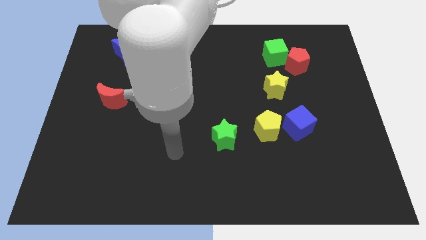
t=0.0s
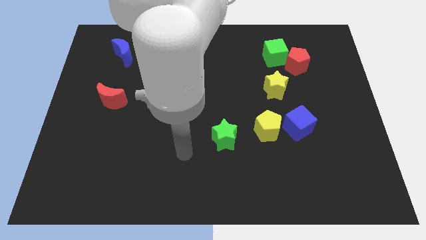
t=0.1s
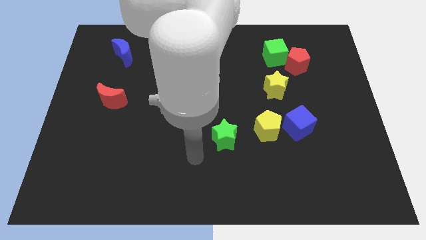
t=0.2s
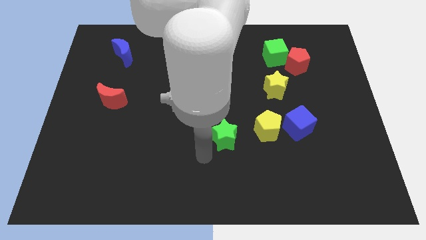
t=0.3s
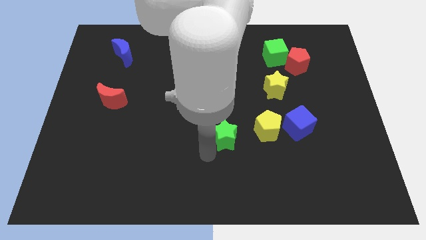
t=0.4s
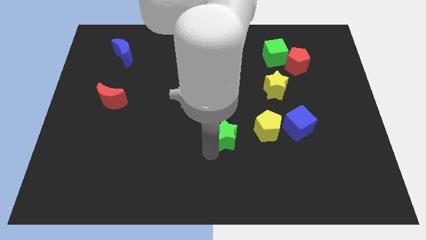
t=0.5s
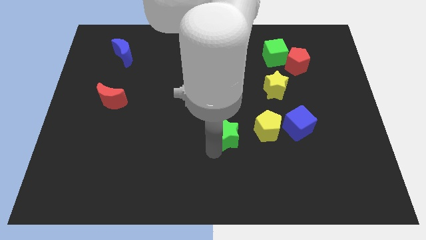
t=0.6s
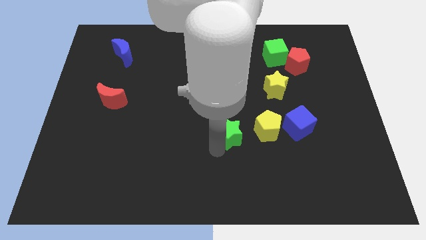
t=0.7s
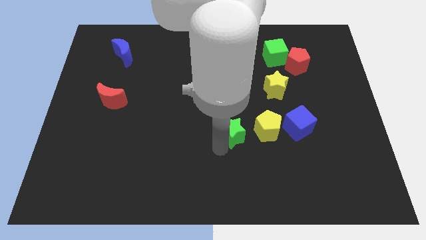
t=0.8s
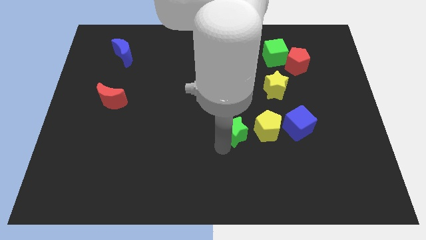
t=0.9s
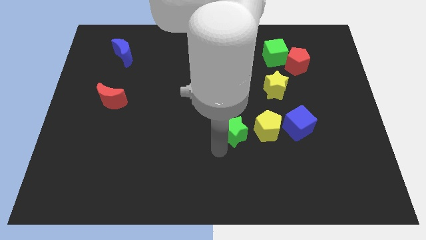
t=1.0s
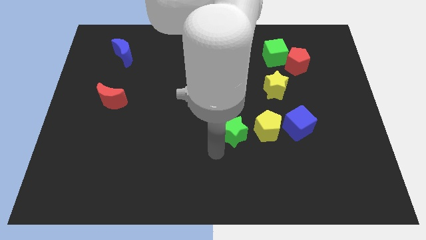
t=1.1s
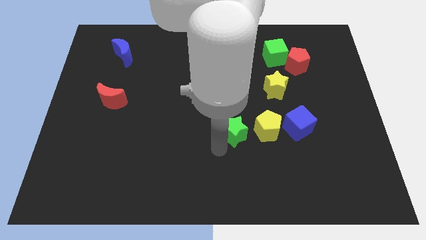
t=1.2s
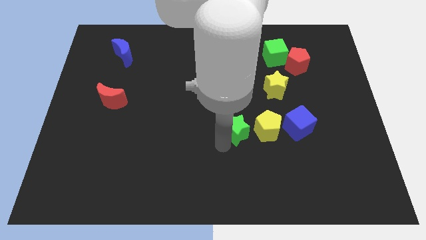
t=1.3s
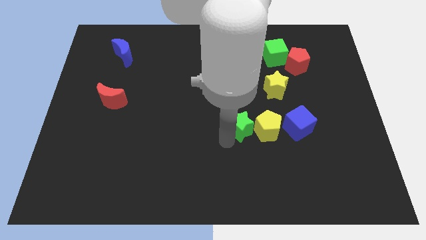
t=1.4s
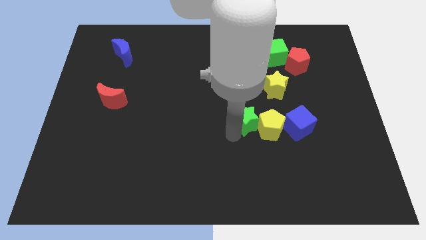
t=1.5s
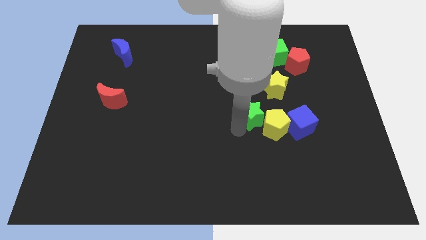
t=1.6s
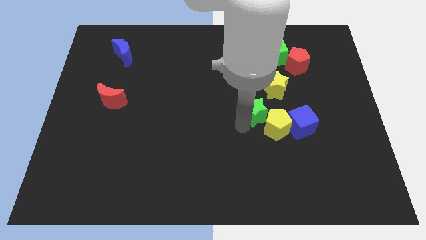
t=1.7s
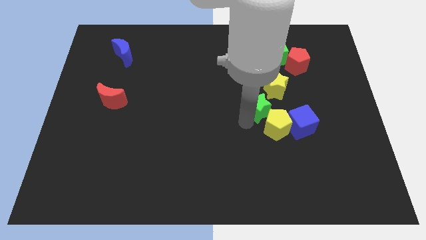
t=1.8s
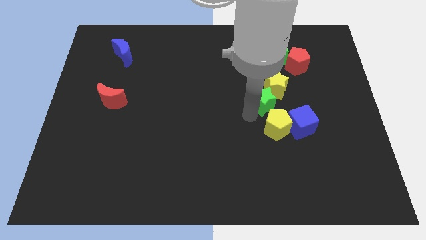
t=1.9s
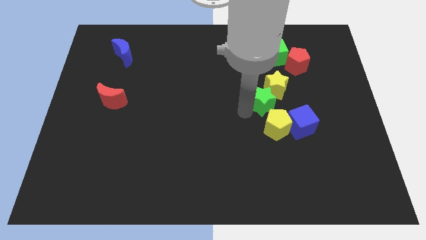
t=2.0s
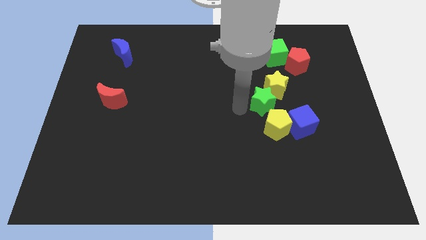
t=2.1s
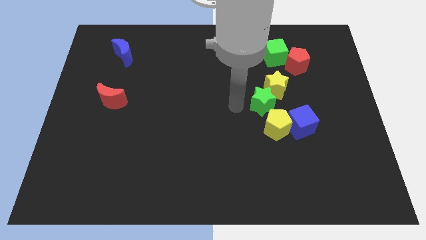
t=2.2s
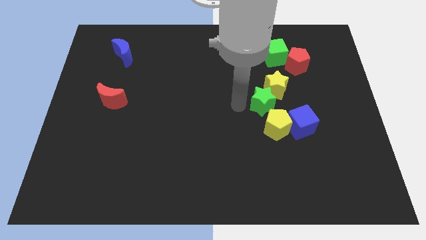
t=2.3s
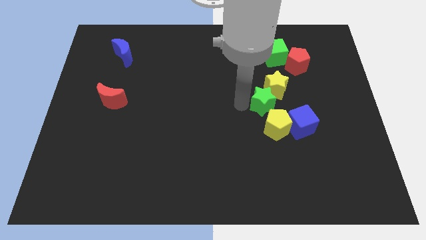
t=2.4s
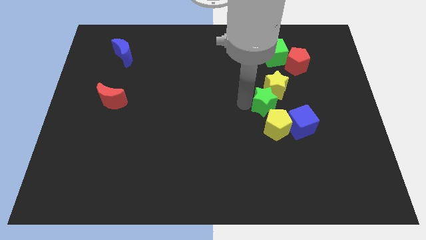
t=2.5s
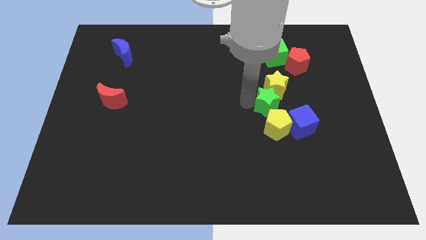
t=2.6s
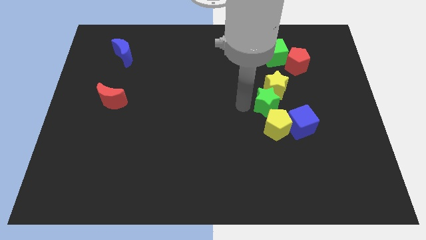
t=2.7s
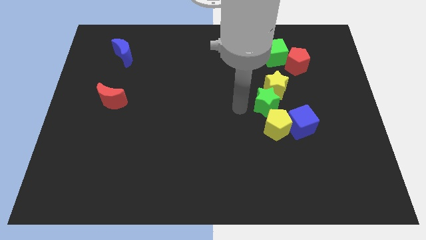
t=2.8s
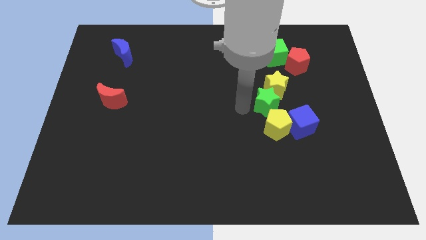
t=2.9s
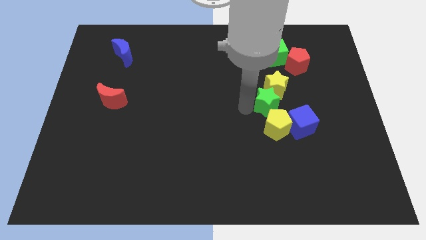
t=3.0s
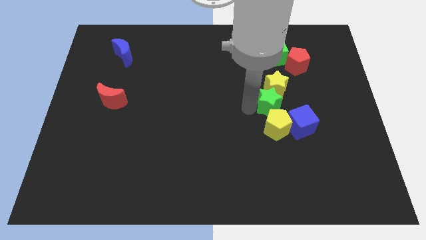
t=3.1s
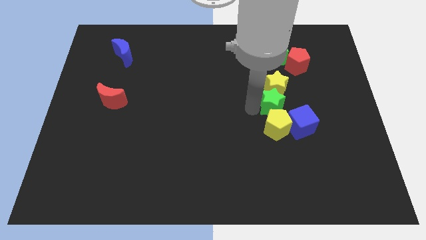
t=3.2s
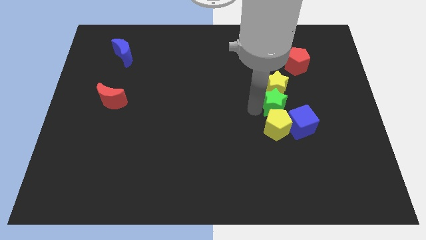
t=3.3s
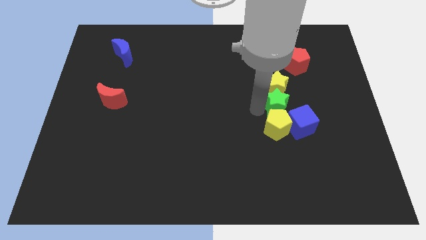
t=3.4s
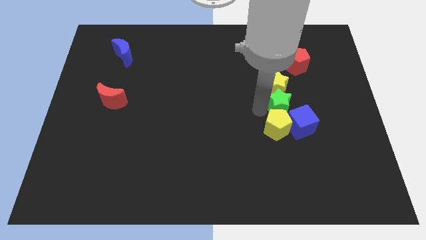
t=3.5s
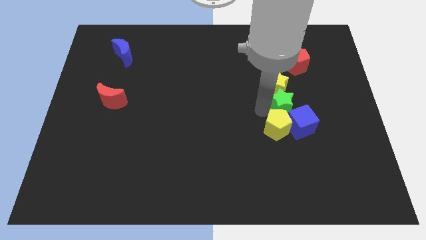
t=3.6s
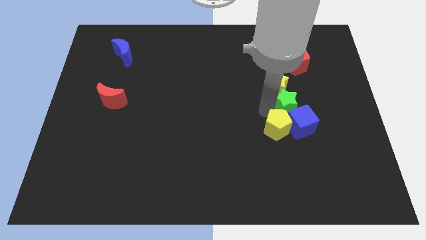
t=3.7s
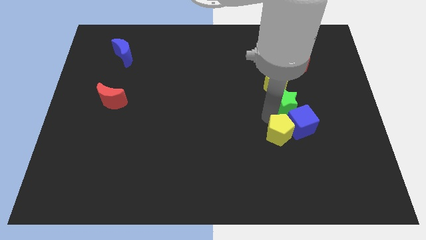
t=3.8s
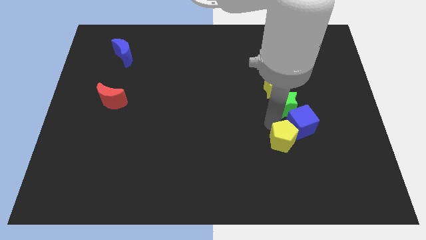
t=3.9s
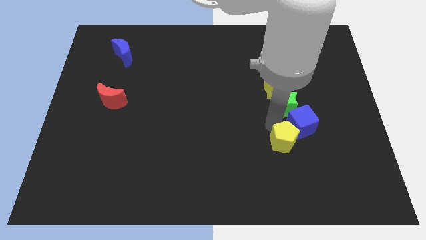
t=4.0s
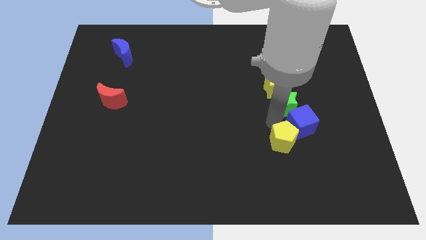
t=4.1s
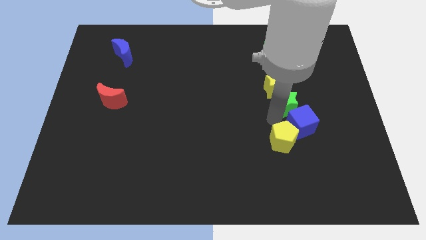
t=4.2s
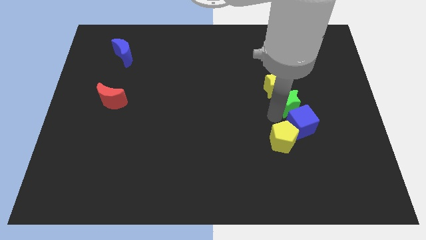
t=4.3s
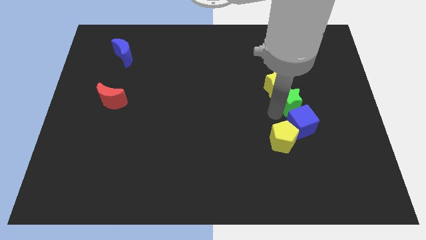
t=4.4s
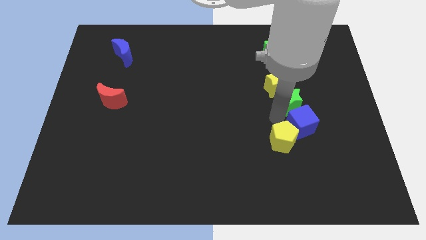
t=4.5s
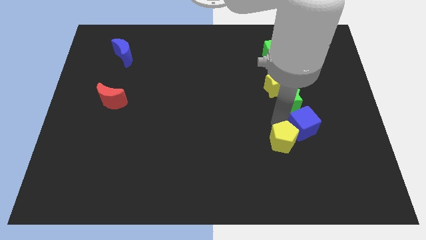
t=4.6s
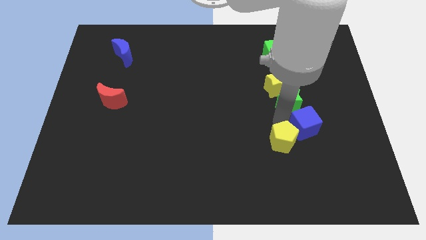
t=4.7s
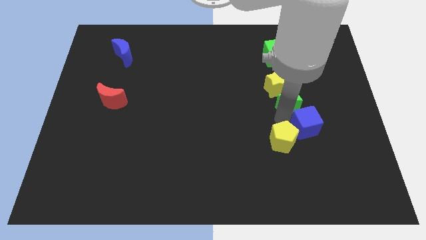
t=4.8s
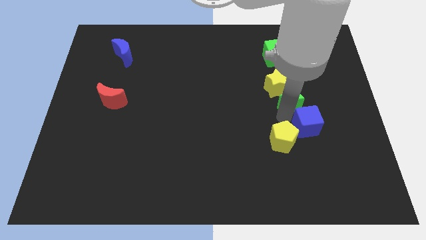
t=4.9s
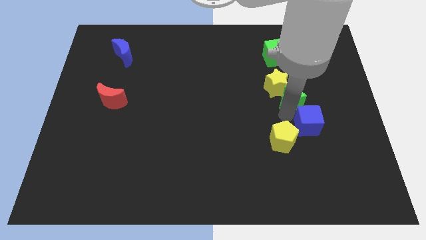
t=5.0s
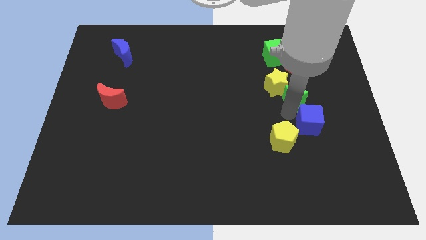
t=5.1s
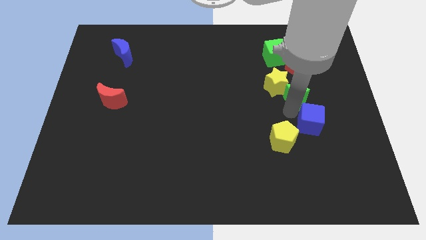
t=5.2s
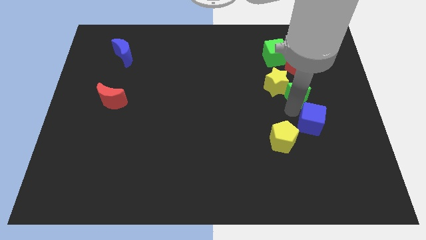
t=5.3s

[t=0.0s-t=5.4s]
slide the green star up and to the right diagonally

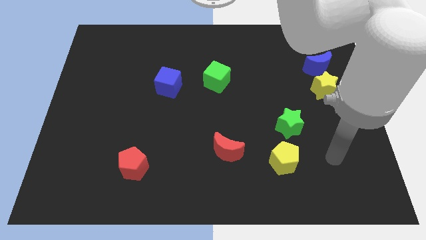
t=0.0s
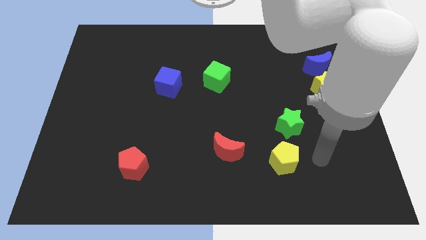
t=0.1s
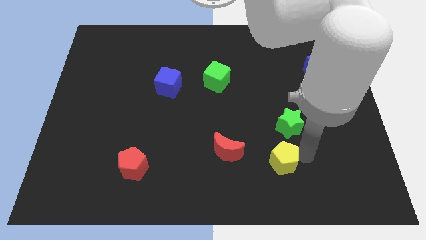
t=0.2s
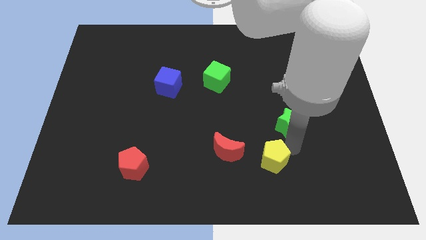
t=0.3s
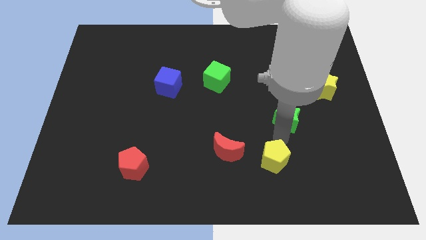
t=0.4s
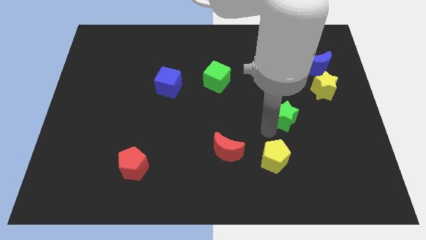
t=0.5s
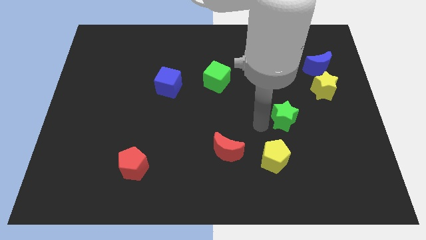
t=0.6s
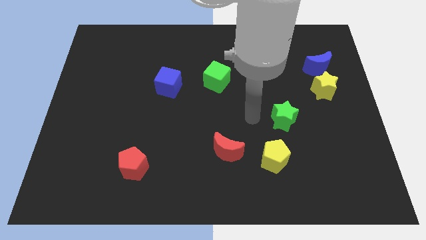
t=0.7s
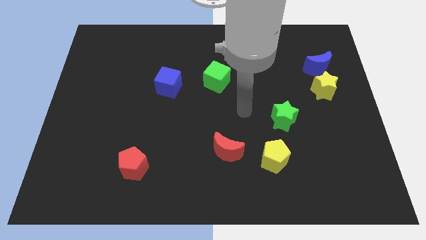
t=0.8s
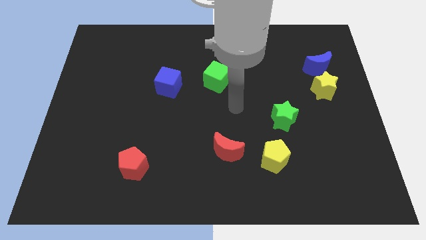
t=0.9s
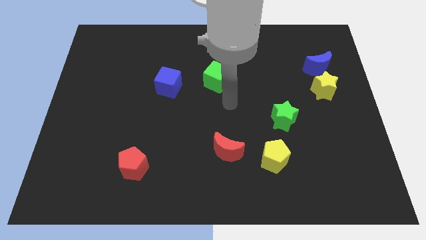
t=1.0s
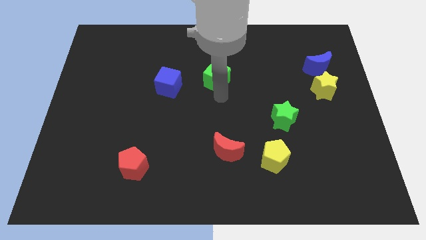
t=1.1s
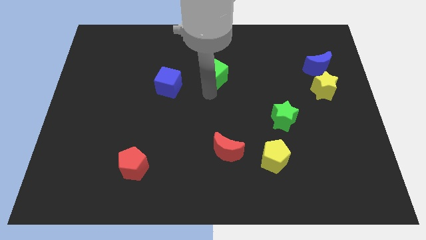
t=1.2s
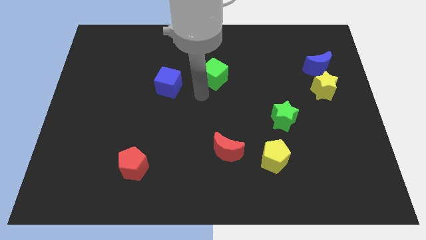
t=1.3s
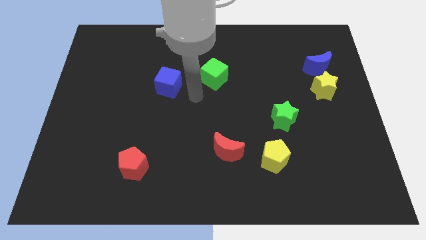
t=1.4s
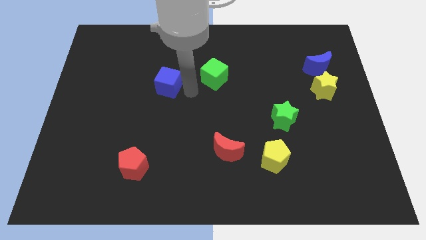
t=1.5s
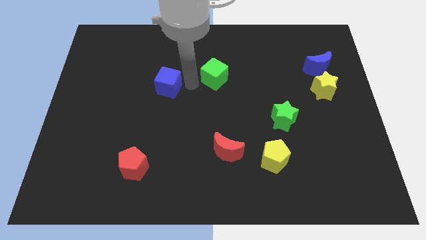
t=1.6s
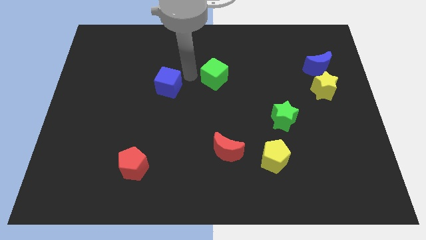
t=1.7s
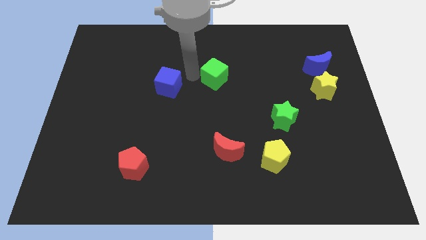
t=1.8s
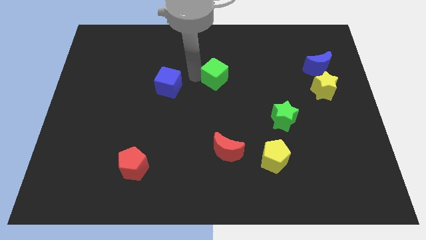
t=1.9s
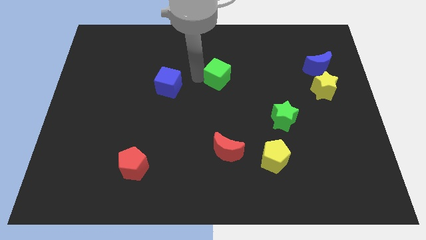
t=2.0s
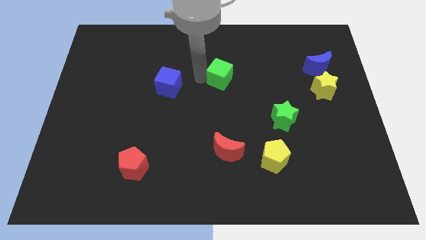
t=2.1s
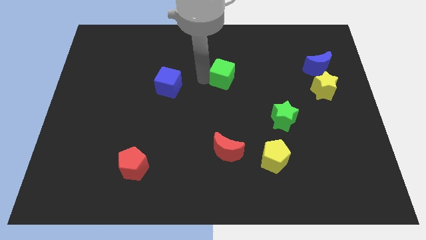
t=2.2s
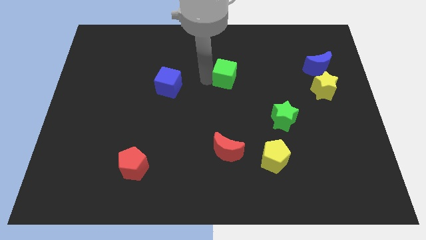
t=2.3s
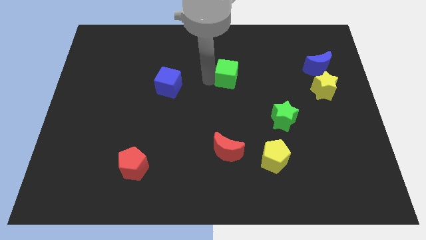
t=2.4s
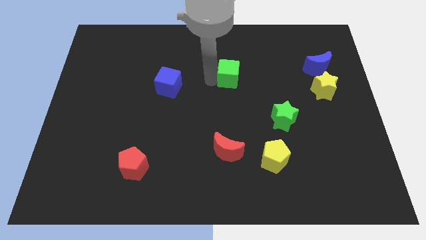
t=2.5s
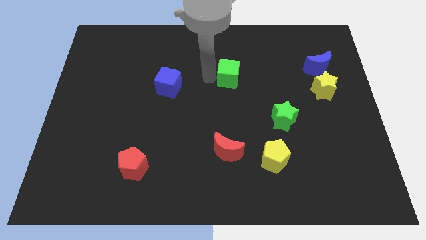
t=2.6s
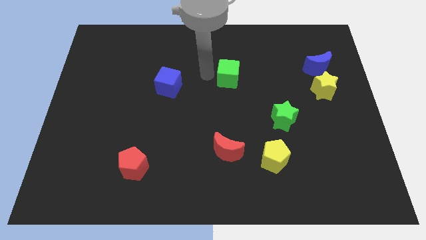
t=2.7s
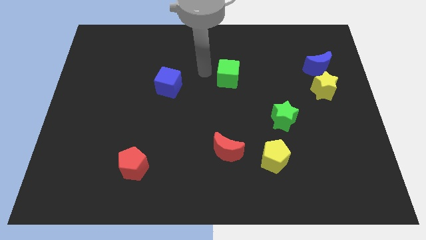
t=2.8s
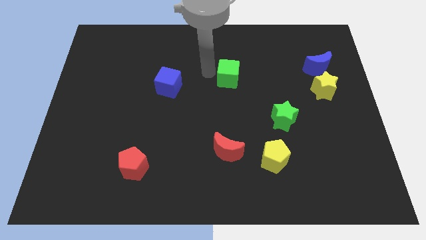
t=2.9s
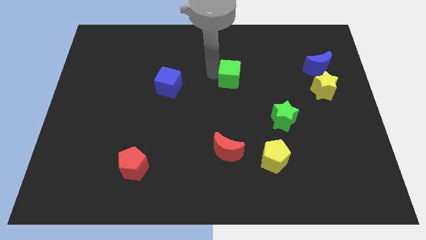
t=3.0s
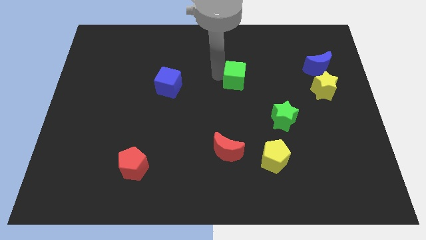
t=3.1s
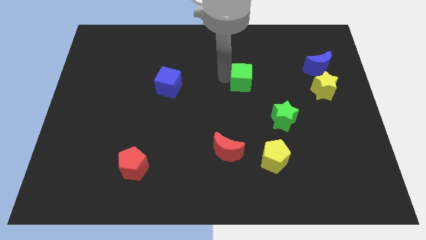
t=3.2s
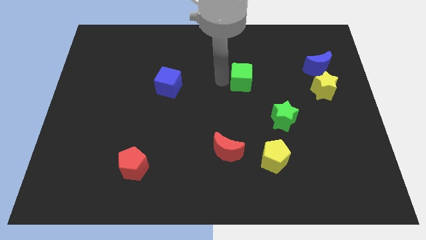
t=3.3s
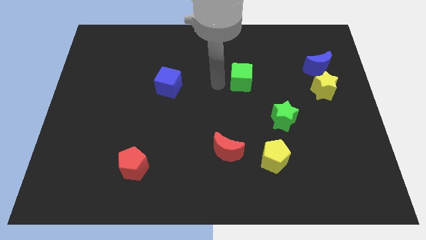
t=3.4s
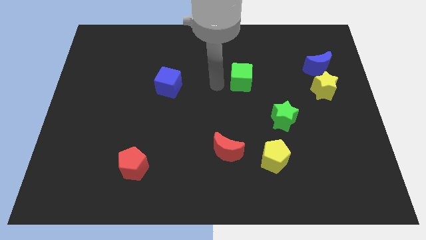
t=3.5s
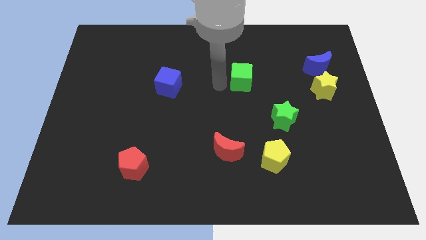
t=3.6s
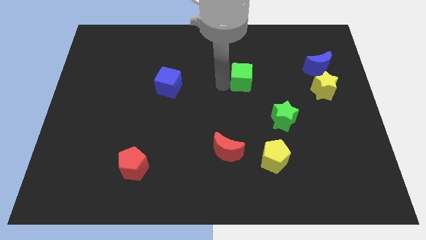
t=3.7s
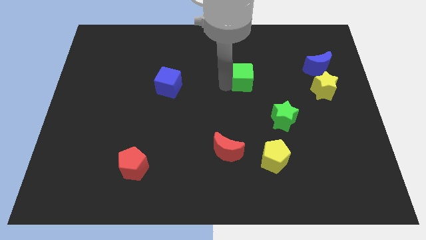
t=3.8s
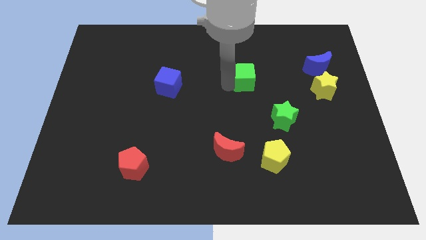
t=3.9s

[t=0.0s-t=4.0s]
slide the green cube somewhat right
